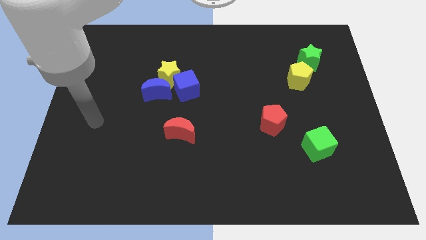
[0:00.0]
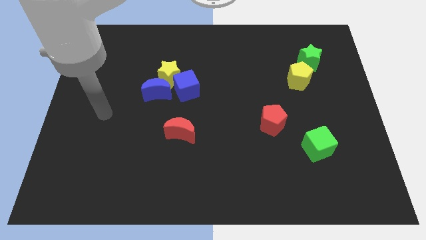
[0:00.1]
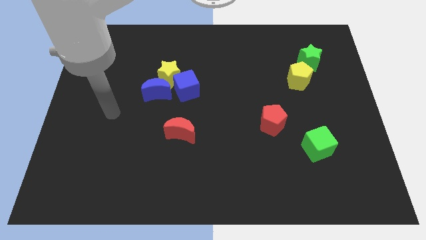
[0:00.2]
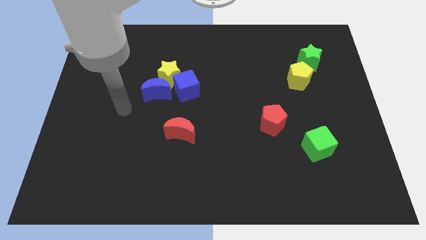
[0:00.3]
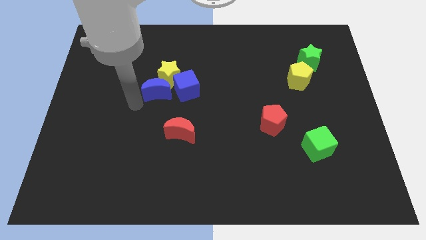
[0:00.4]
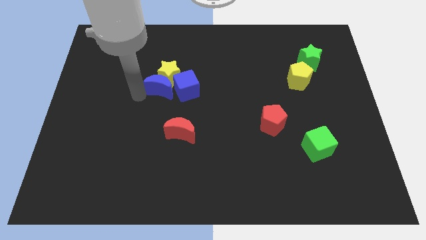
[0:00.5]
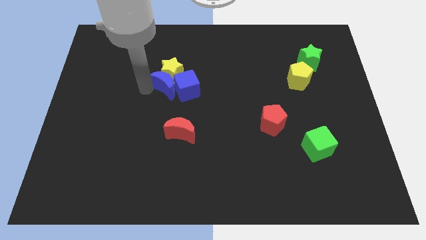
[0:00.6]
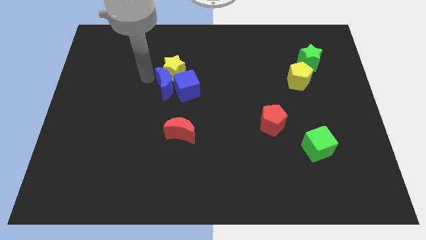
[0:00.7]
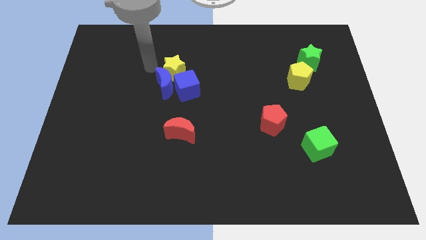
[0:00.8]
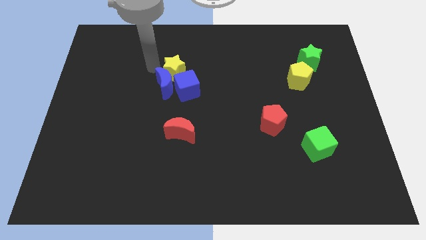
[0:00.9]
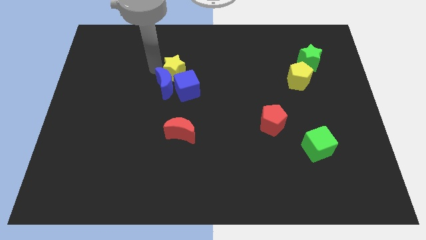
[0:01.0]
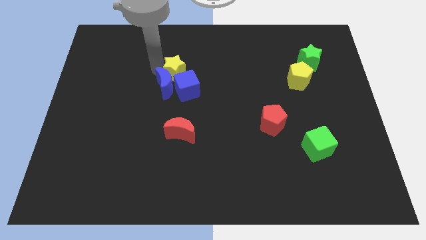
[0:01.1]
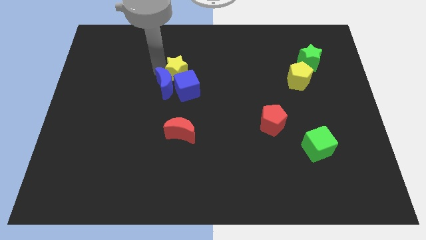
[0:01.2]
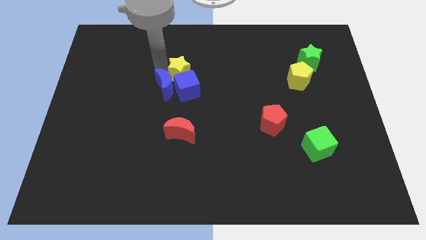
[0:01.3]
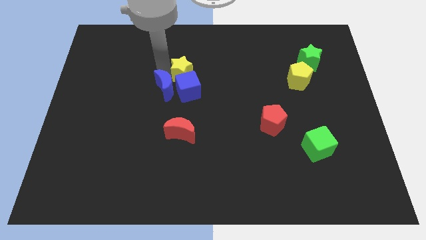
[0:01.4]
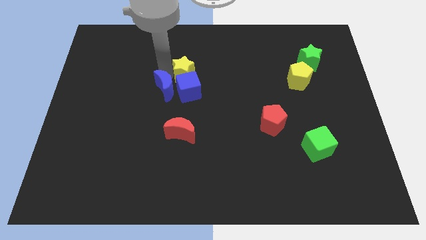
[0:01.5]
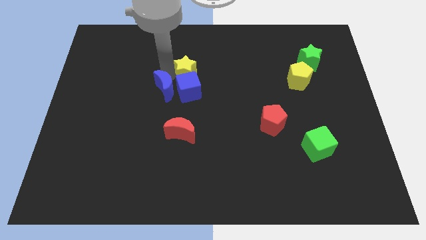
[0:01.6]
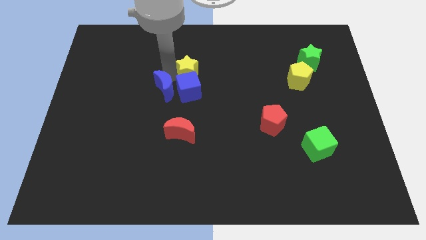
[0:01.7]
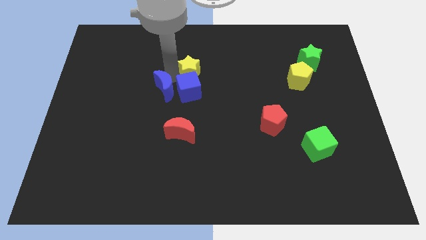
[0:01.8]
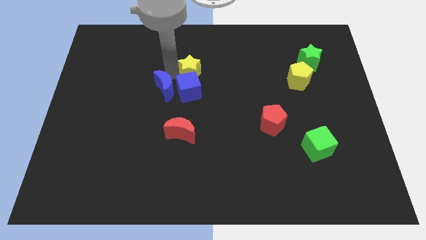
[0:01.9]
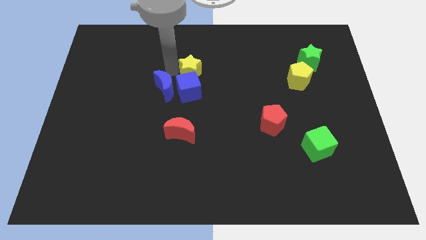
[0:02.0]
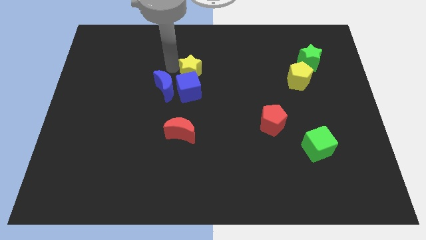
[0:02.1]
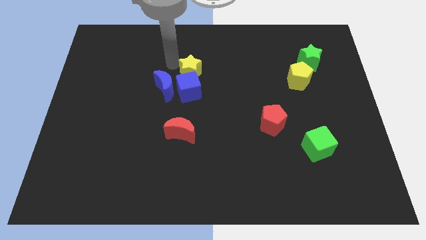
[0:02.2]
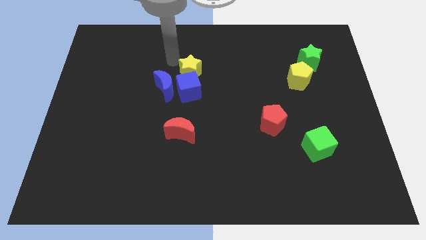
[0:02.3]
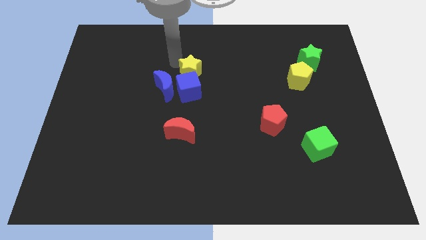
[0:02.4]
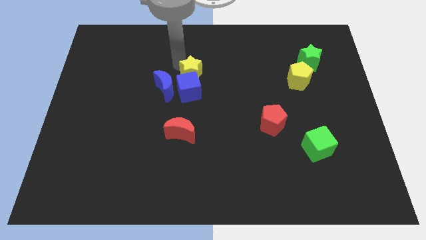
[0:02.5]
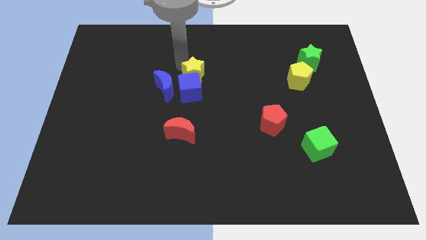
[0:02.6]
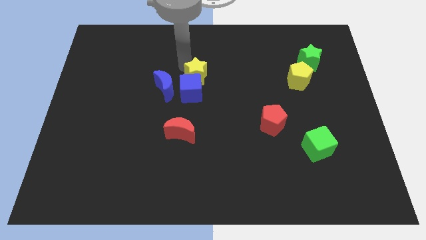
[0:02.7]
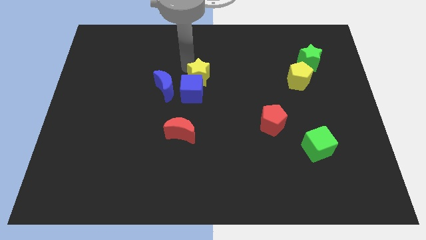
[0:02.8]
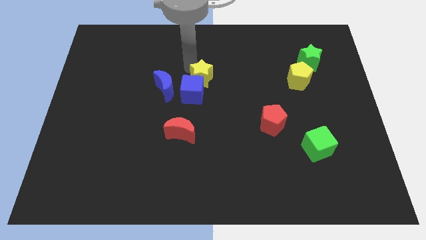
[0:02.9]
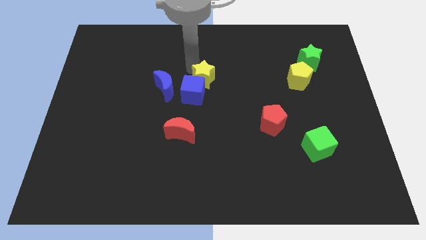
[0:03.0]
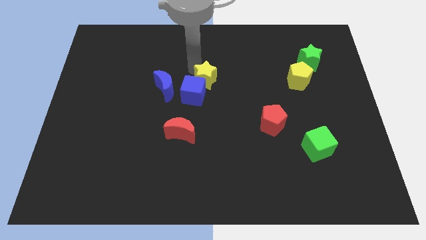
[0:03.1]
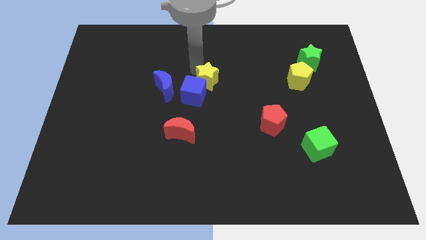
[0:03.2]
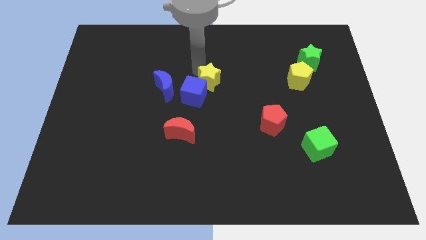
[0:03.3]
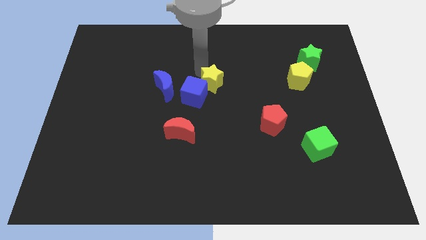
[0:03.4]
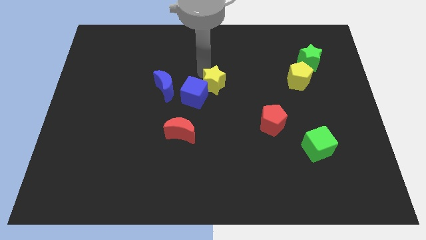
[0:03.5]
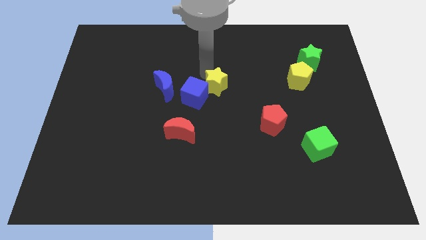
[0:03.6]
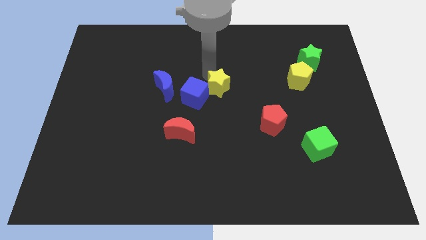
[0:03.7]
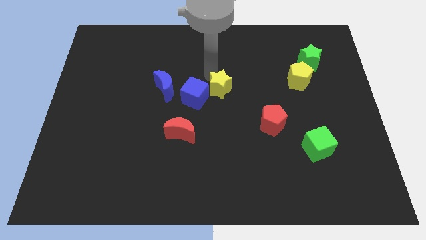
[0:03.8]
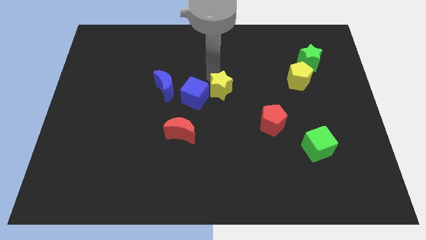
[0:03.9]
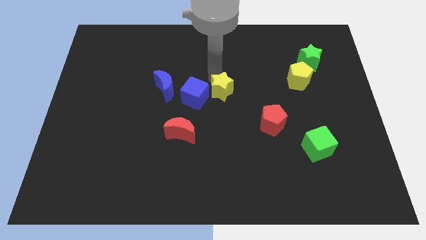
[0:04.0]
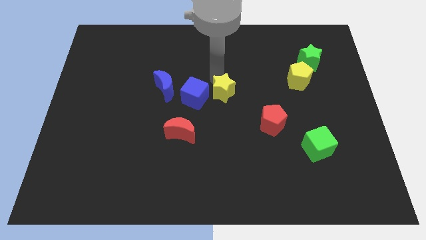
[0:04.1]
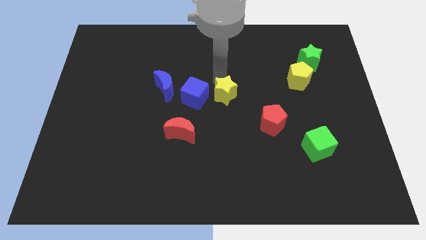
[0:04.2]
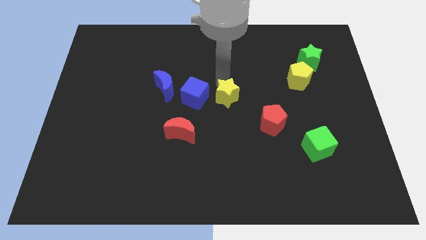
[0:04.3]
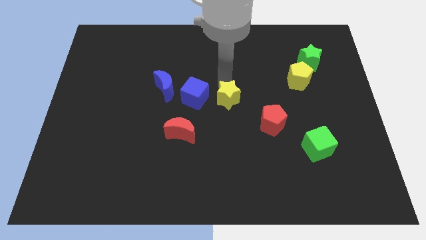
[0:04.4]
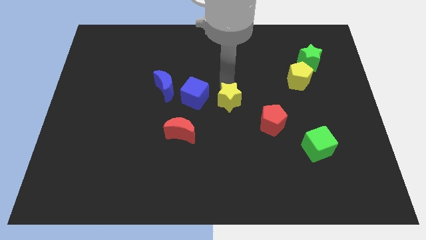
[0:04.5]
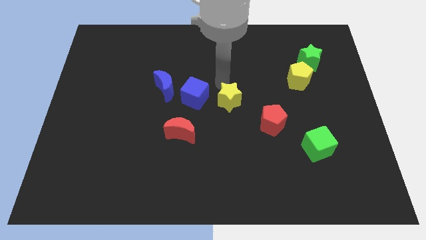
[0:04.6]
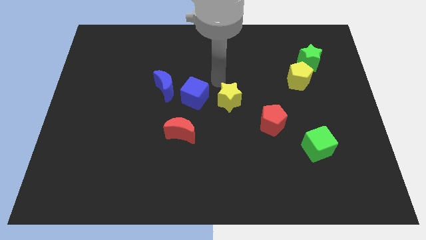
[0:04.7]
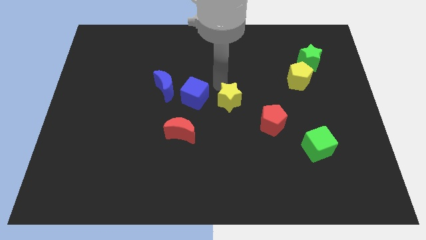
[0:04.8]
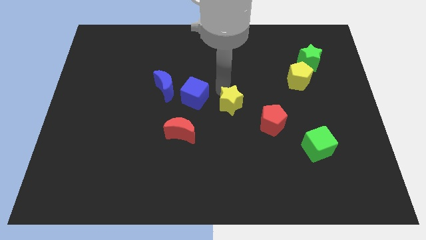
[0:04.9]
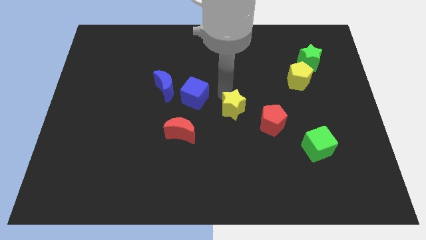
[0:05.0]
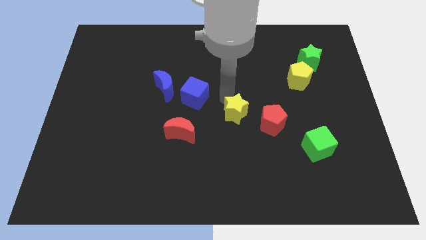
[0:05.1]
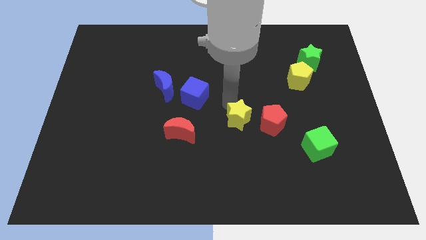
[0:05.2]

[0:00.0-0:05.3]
move the yellow star diagonally down and right

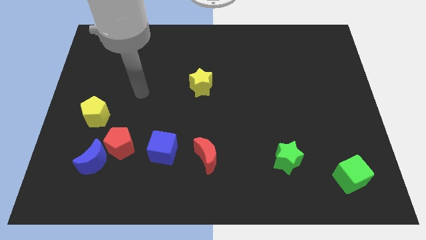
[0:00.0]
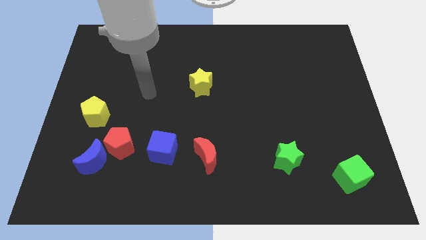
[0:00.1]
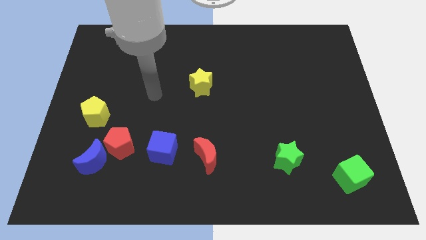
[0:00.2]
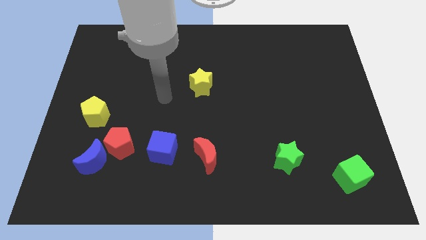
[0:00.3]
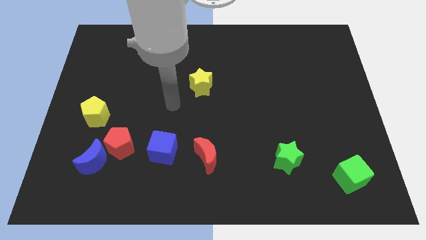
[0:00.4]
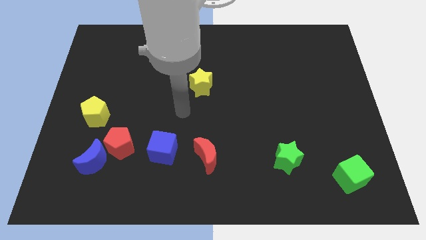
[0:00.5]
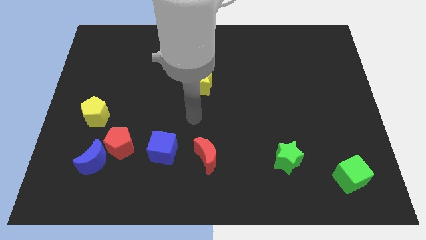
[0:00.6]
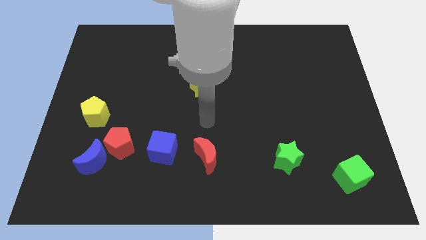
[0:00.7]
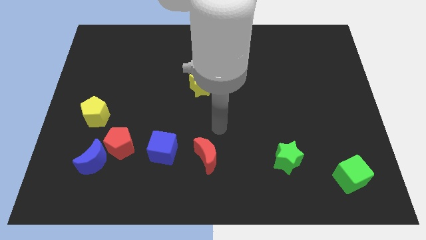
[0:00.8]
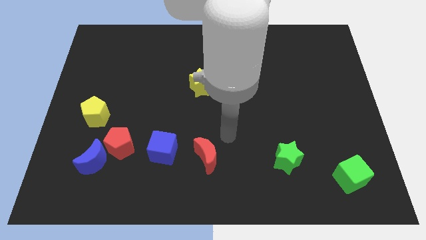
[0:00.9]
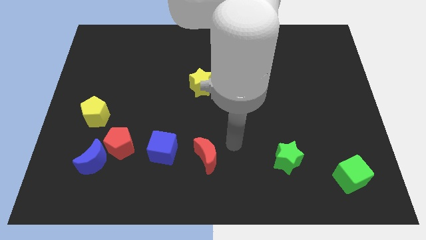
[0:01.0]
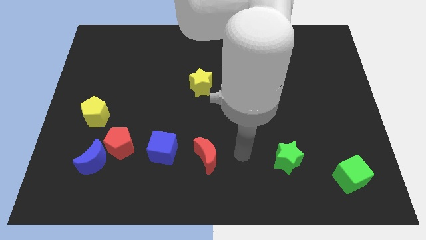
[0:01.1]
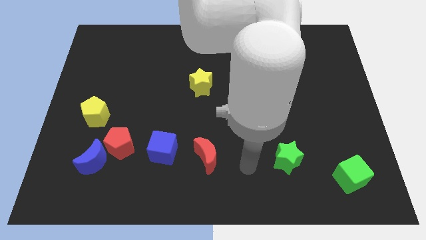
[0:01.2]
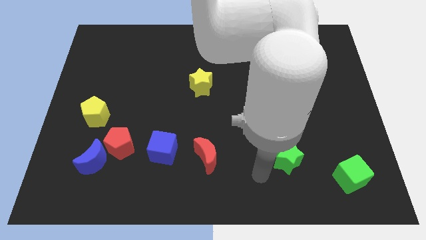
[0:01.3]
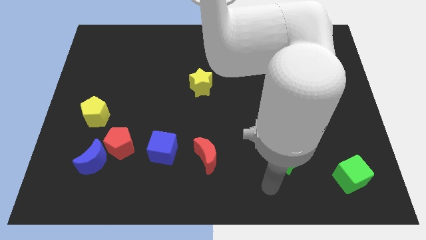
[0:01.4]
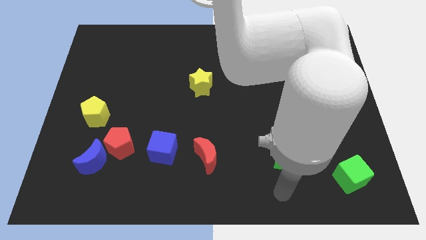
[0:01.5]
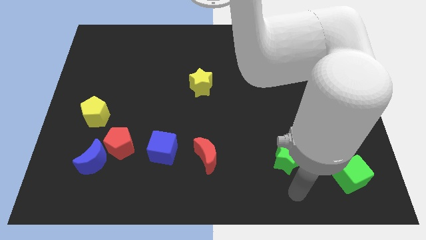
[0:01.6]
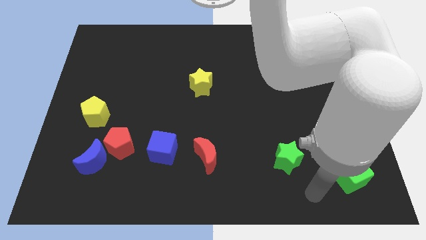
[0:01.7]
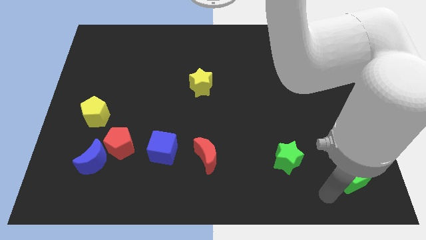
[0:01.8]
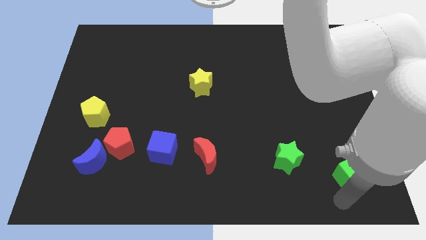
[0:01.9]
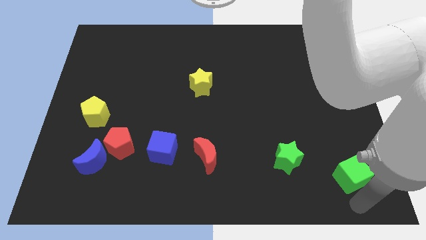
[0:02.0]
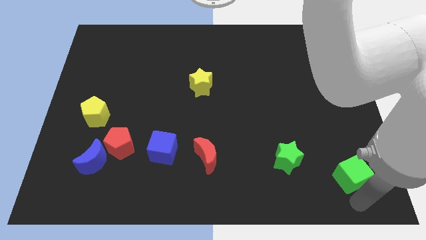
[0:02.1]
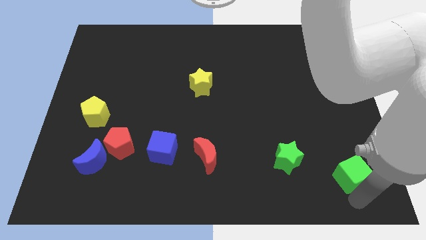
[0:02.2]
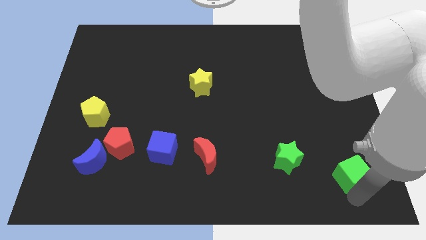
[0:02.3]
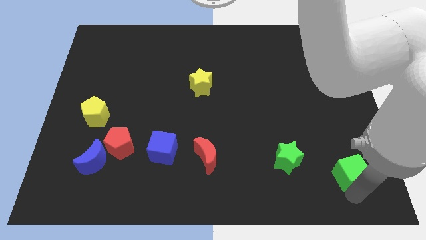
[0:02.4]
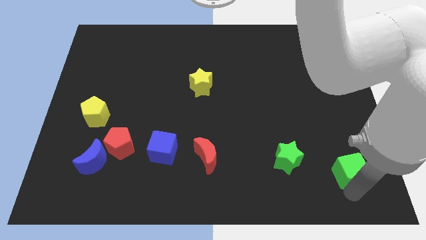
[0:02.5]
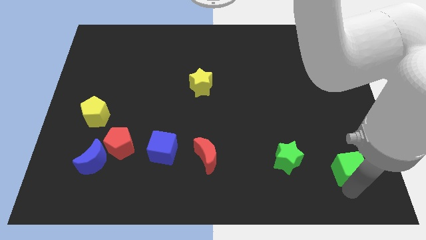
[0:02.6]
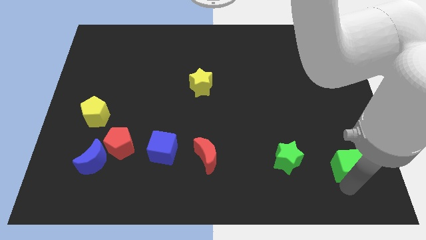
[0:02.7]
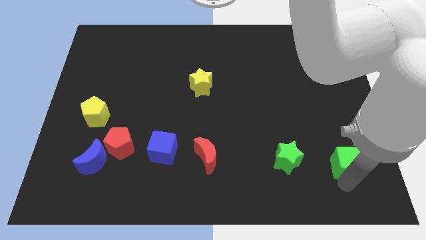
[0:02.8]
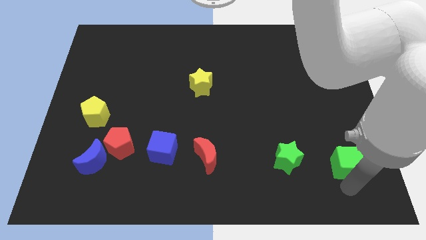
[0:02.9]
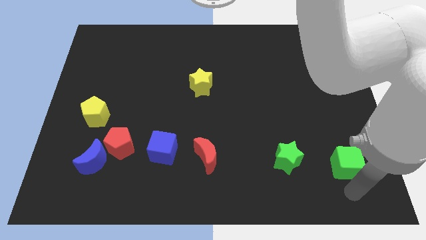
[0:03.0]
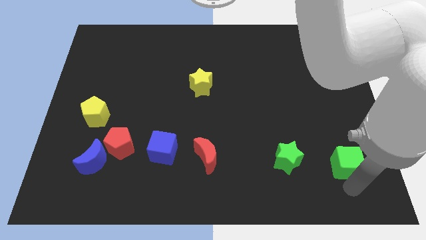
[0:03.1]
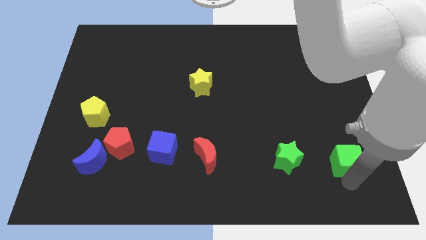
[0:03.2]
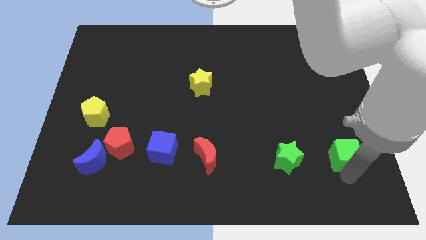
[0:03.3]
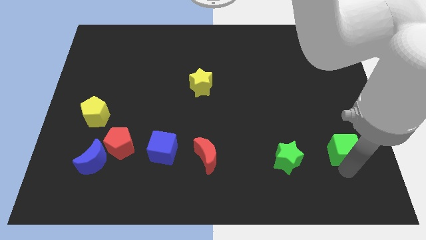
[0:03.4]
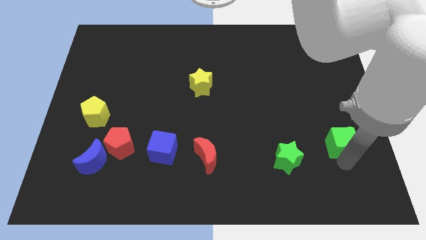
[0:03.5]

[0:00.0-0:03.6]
slightly move the green cube up
